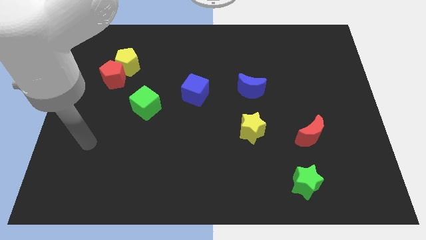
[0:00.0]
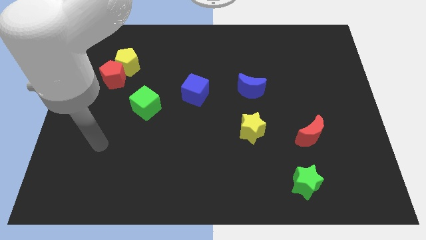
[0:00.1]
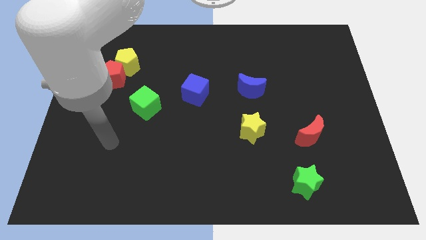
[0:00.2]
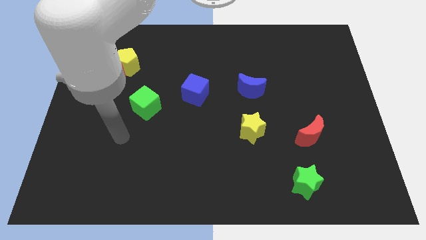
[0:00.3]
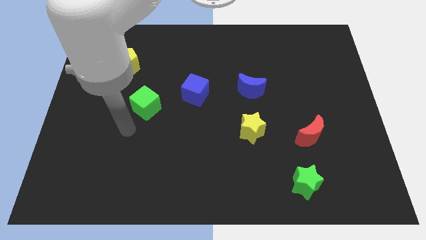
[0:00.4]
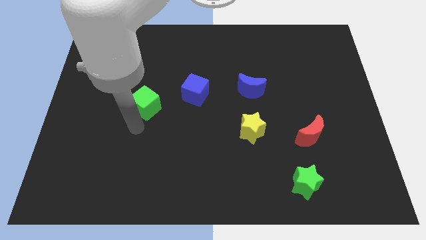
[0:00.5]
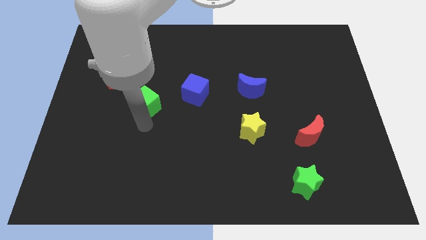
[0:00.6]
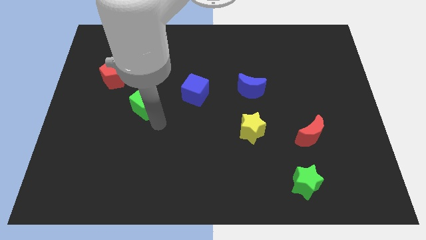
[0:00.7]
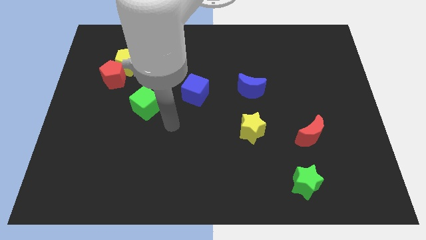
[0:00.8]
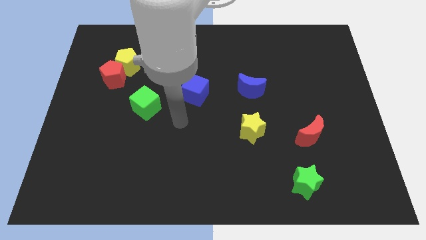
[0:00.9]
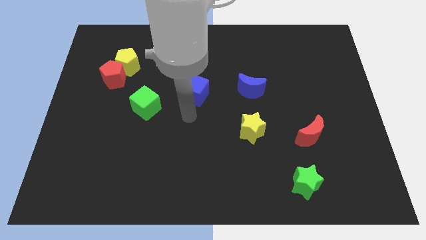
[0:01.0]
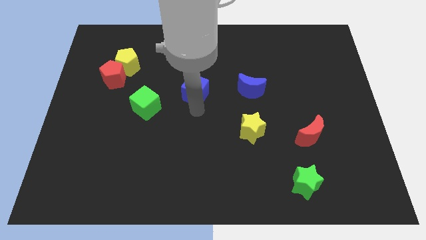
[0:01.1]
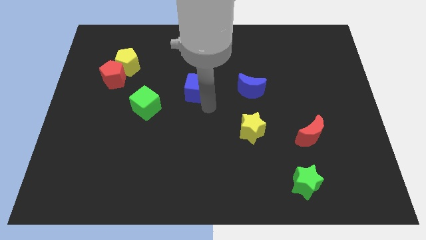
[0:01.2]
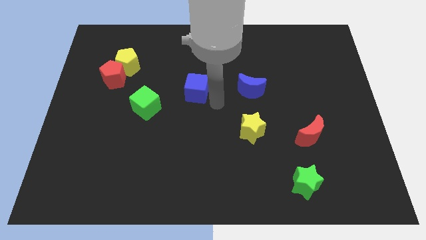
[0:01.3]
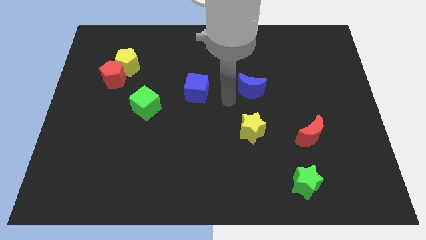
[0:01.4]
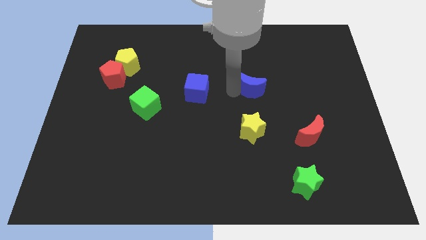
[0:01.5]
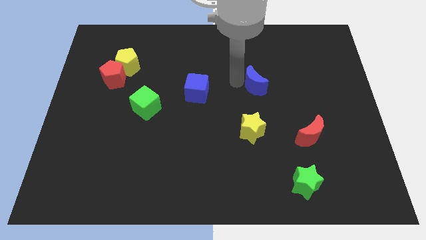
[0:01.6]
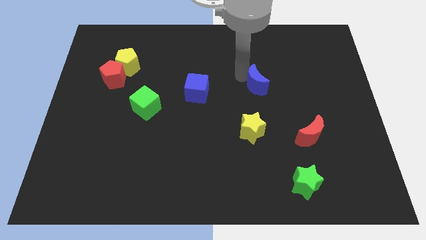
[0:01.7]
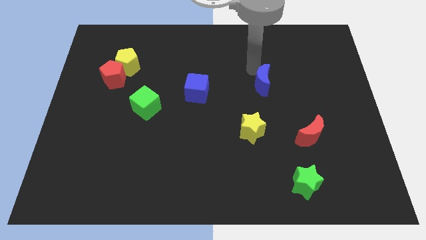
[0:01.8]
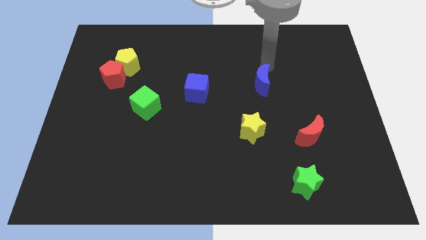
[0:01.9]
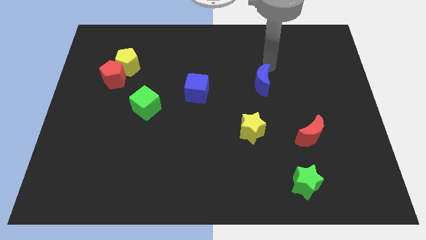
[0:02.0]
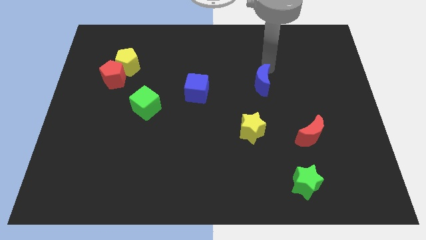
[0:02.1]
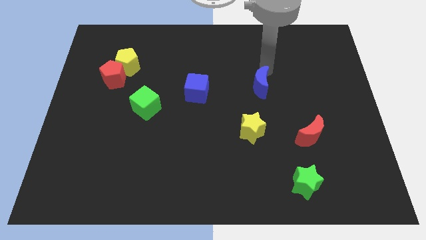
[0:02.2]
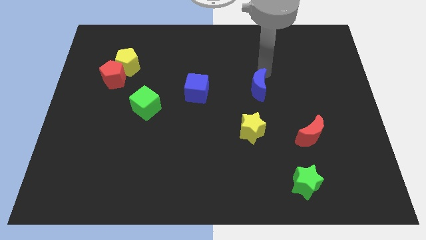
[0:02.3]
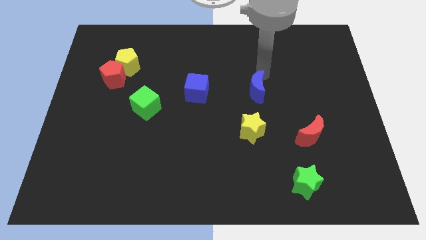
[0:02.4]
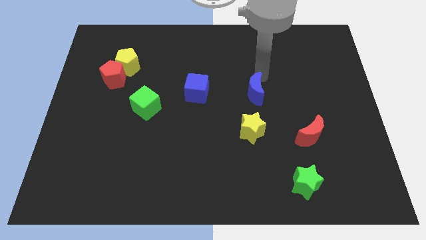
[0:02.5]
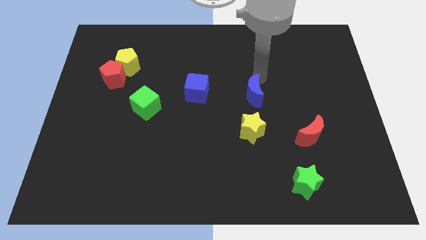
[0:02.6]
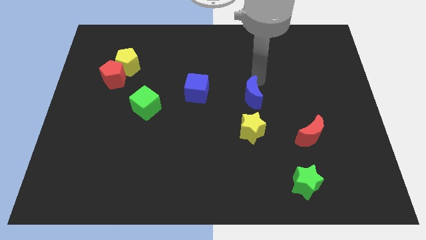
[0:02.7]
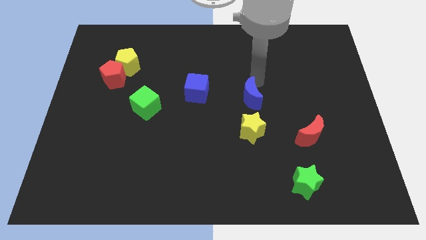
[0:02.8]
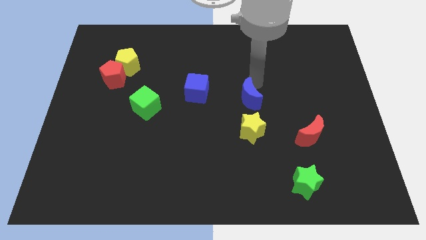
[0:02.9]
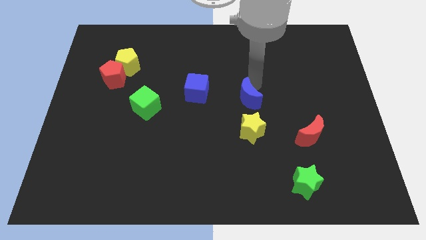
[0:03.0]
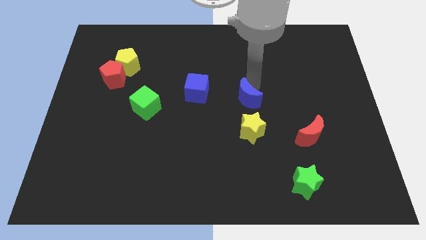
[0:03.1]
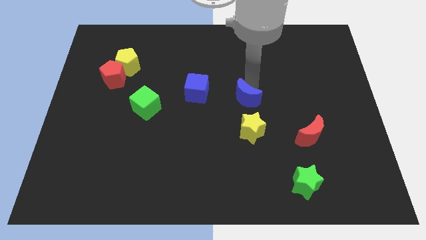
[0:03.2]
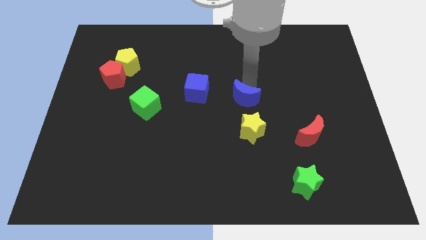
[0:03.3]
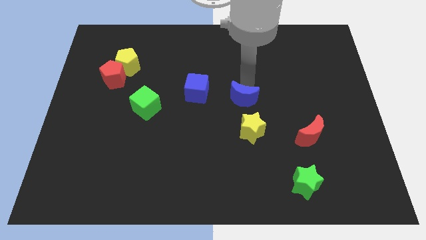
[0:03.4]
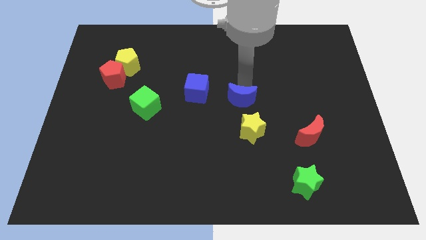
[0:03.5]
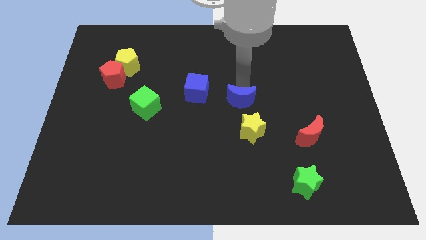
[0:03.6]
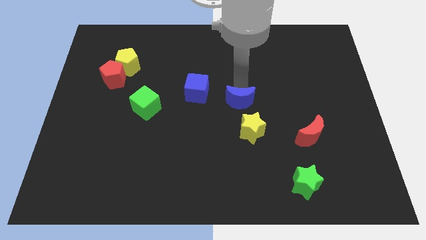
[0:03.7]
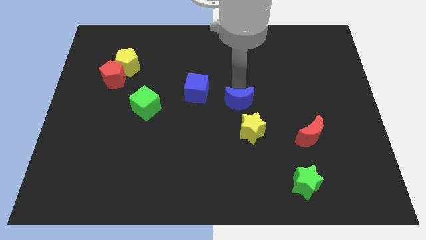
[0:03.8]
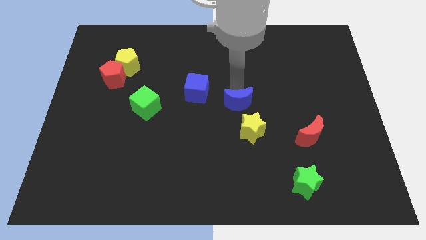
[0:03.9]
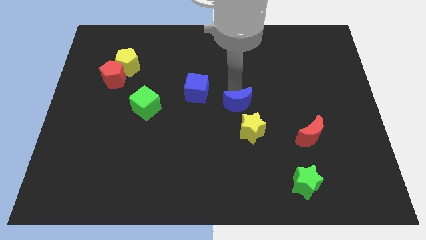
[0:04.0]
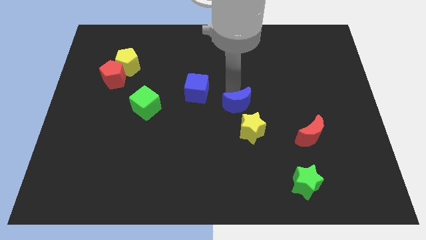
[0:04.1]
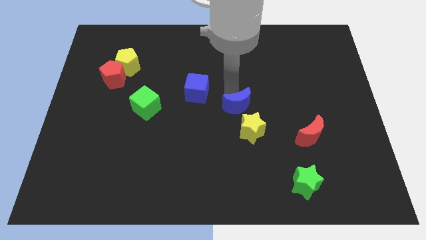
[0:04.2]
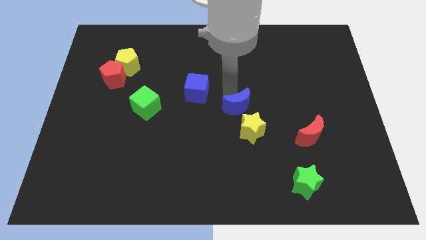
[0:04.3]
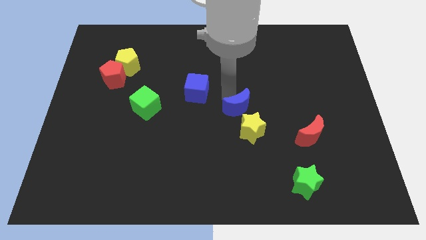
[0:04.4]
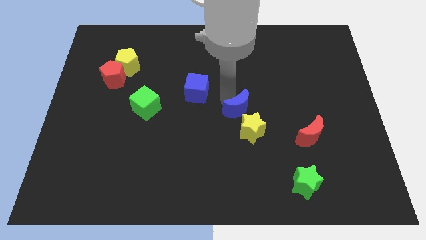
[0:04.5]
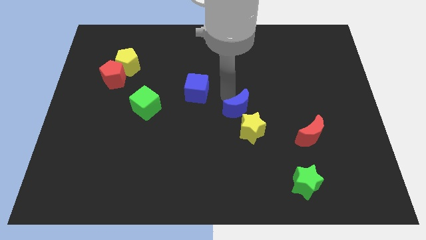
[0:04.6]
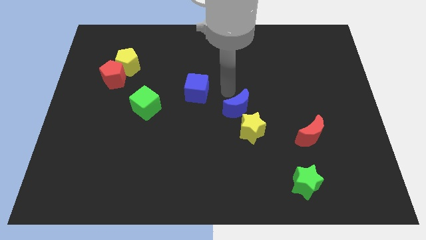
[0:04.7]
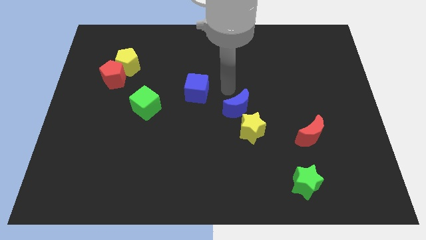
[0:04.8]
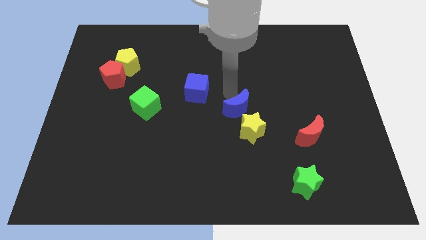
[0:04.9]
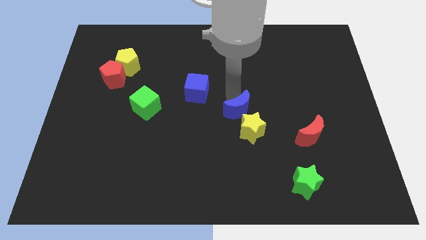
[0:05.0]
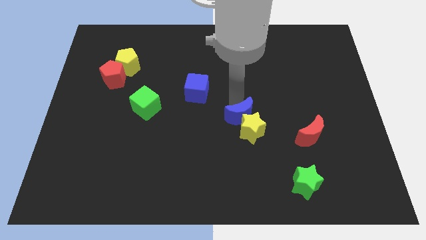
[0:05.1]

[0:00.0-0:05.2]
move the blue moon to the yellow star

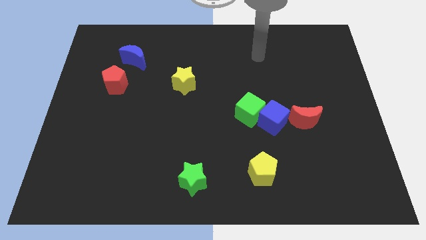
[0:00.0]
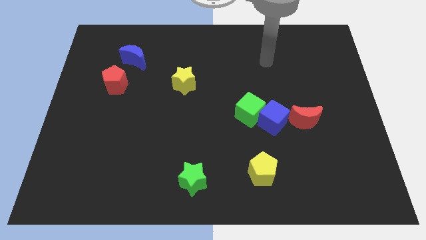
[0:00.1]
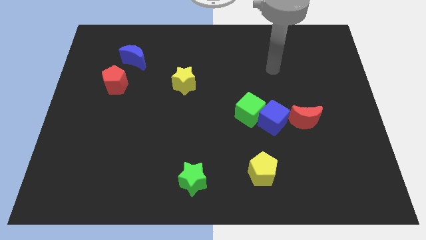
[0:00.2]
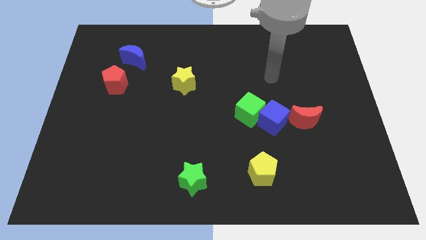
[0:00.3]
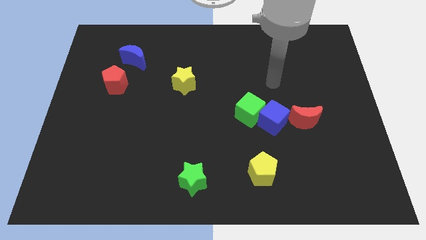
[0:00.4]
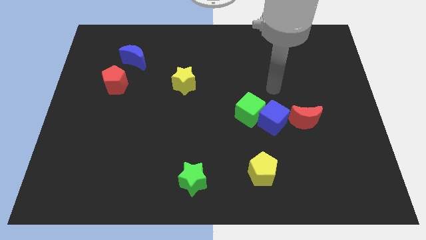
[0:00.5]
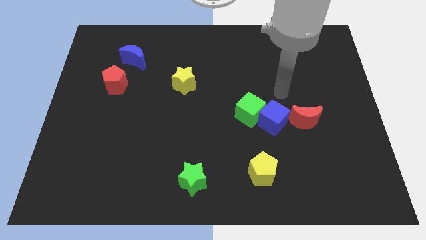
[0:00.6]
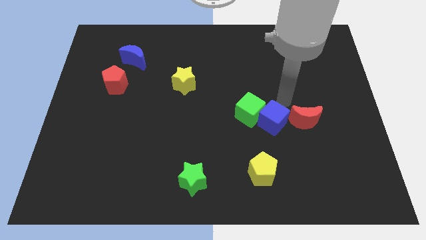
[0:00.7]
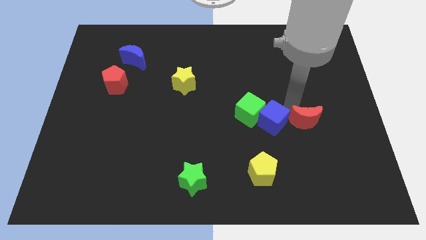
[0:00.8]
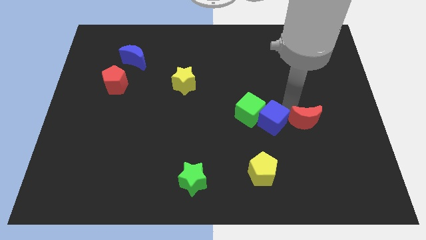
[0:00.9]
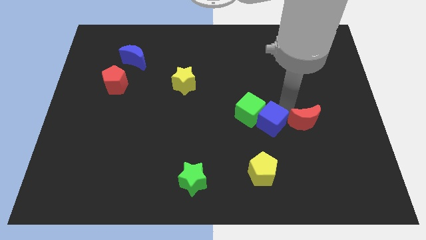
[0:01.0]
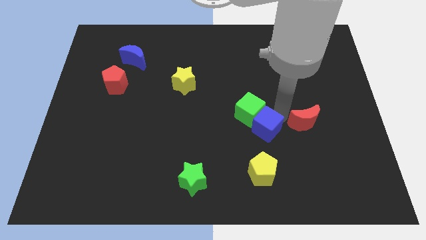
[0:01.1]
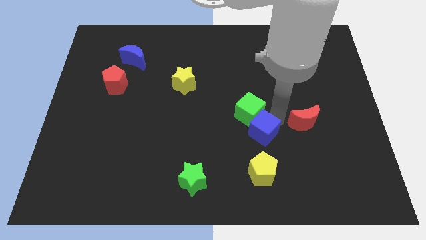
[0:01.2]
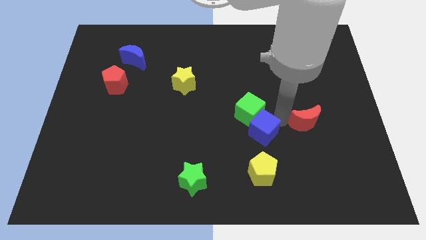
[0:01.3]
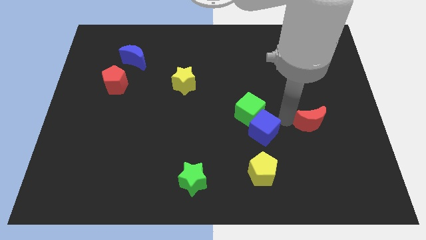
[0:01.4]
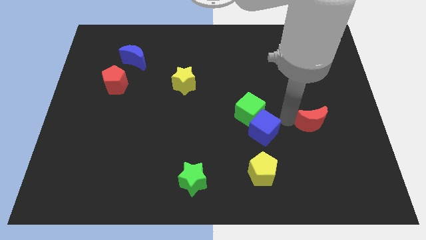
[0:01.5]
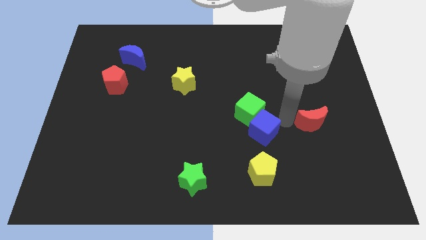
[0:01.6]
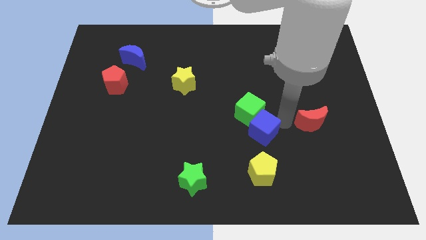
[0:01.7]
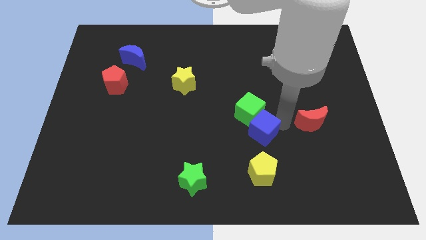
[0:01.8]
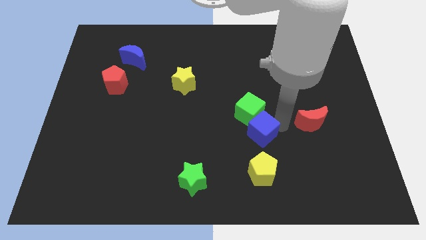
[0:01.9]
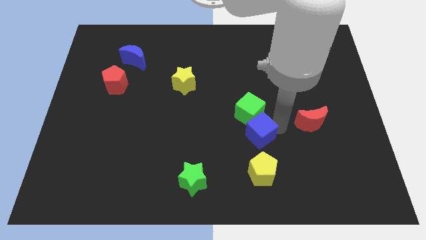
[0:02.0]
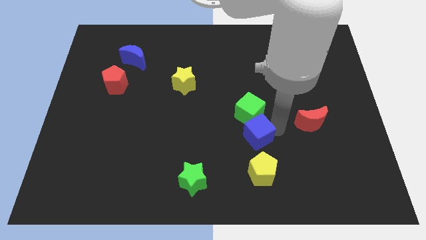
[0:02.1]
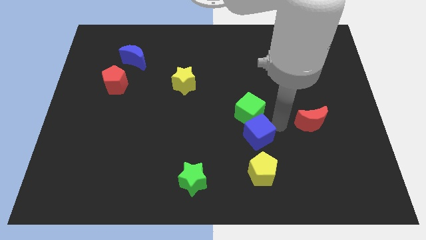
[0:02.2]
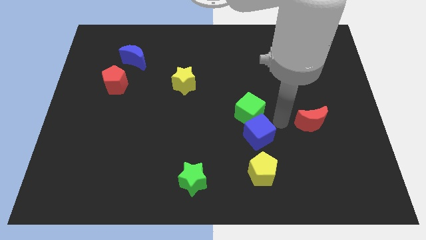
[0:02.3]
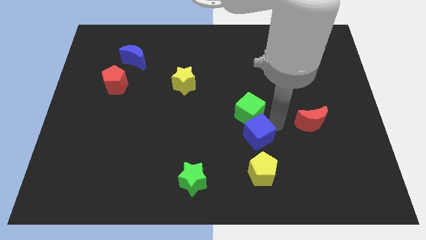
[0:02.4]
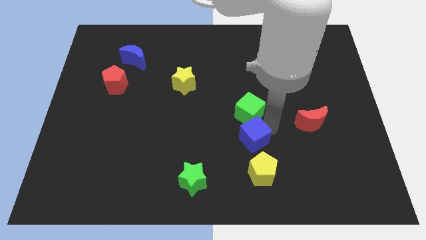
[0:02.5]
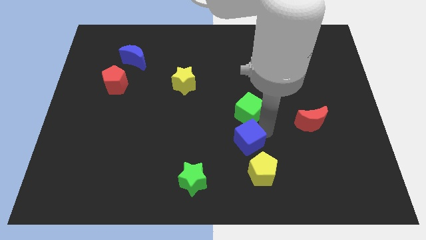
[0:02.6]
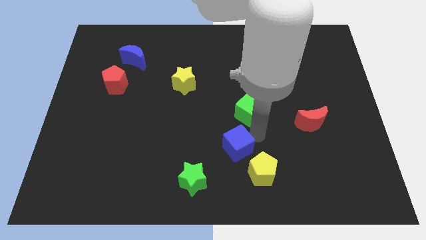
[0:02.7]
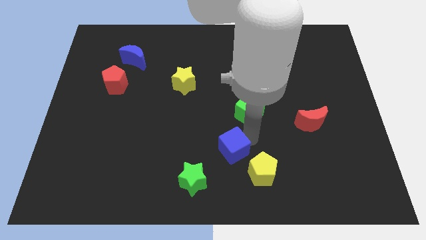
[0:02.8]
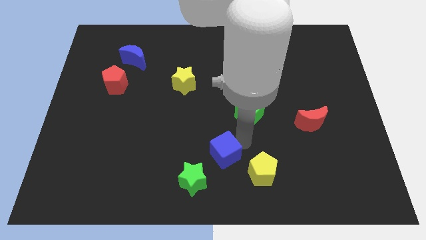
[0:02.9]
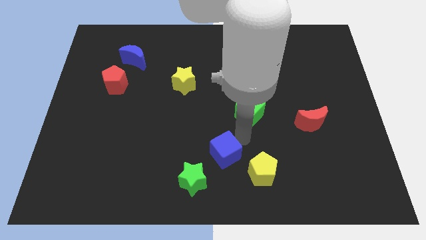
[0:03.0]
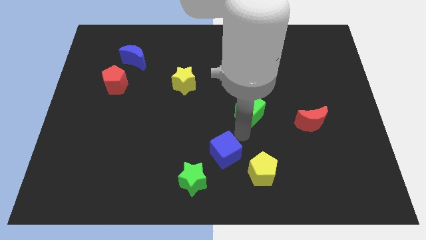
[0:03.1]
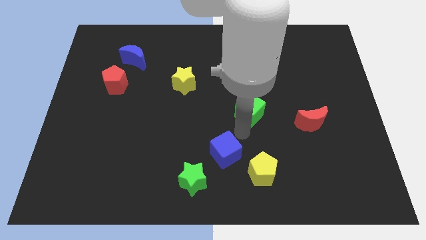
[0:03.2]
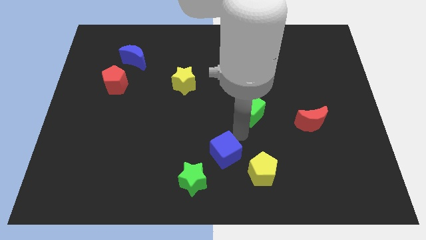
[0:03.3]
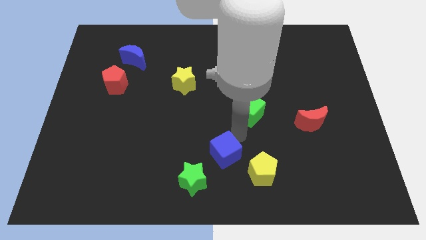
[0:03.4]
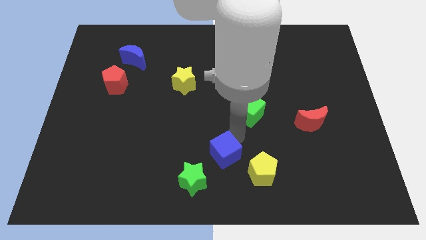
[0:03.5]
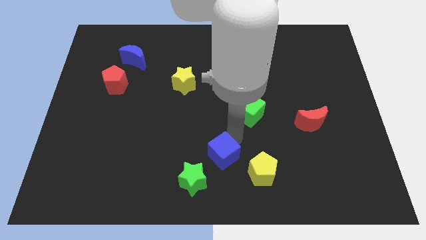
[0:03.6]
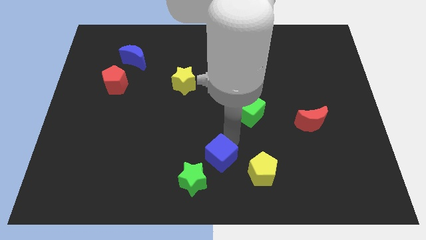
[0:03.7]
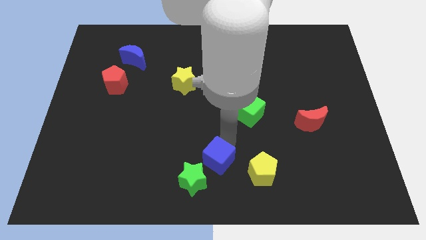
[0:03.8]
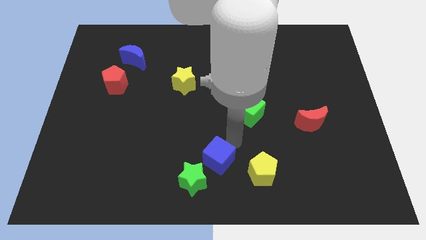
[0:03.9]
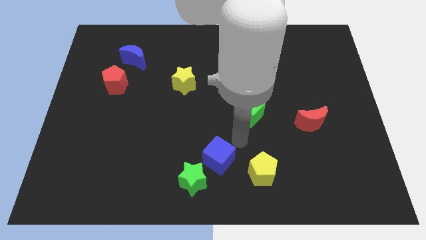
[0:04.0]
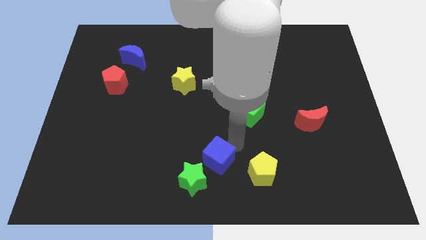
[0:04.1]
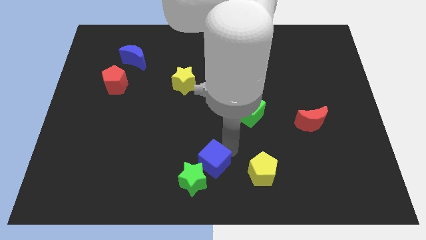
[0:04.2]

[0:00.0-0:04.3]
push the blue cube next to the green star
